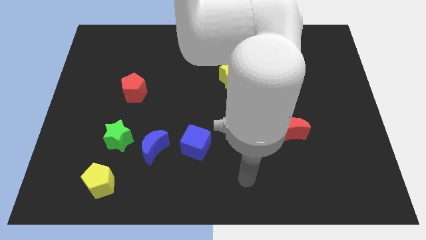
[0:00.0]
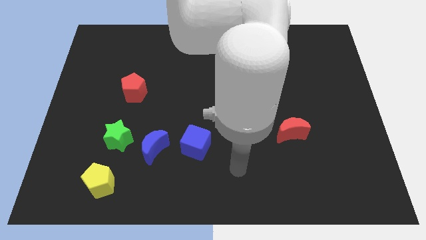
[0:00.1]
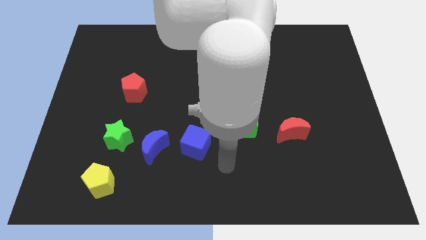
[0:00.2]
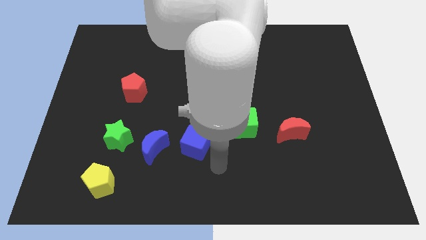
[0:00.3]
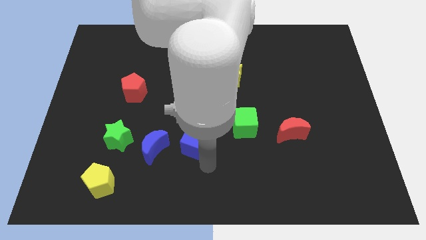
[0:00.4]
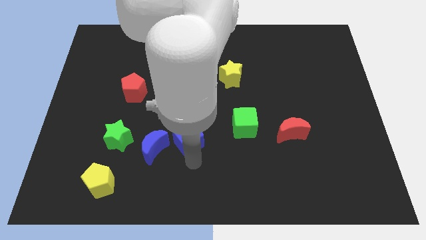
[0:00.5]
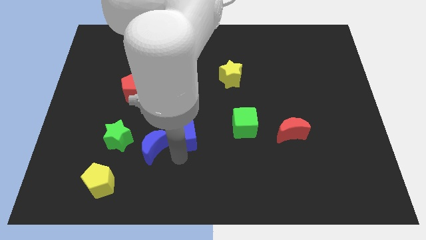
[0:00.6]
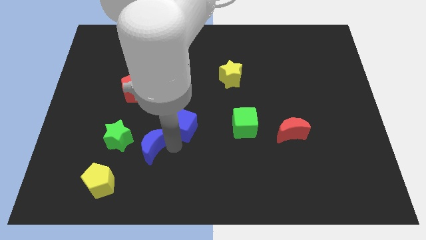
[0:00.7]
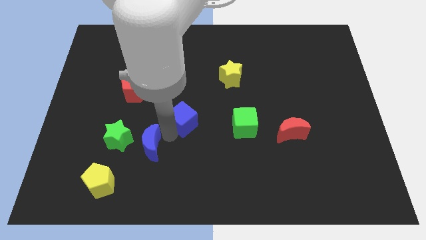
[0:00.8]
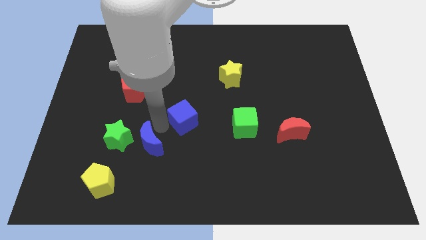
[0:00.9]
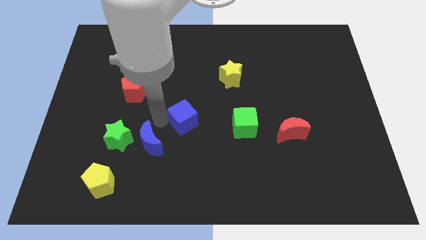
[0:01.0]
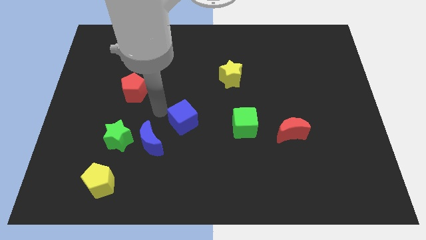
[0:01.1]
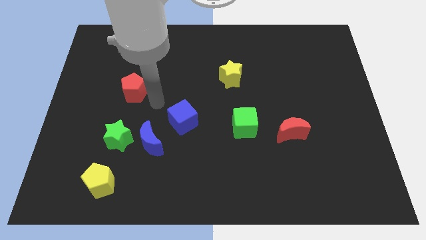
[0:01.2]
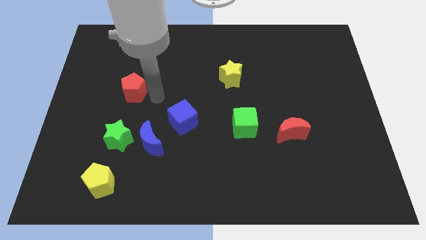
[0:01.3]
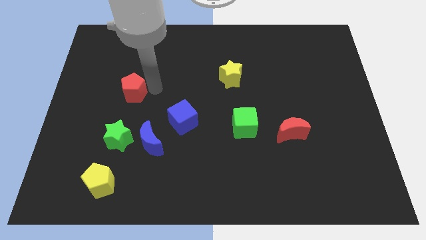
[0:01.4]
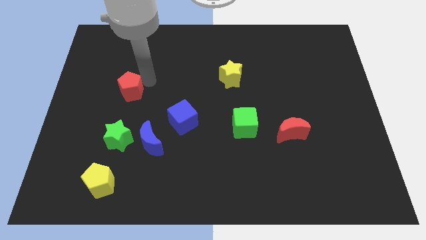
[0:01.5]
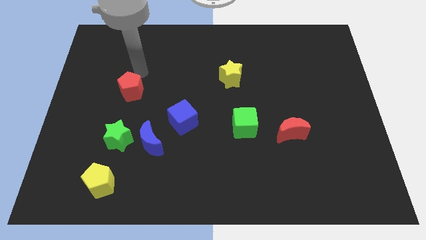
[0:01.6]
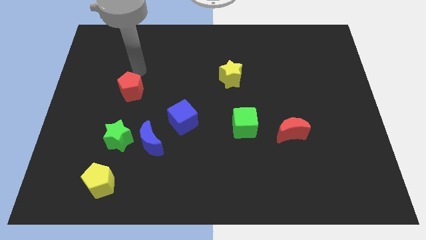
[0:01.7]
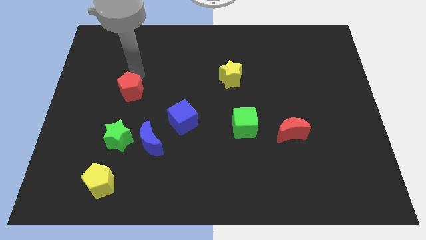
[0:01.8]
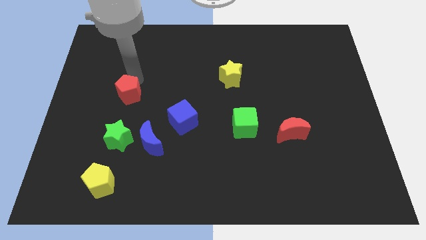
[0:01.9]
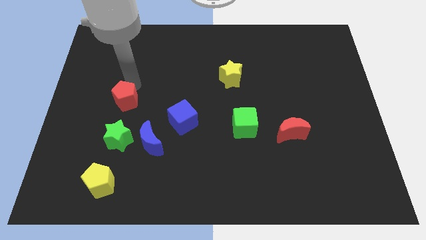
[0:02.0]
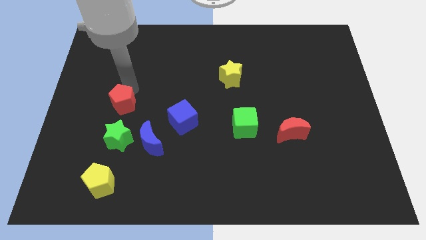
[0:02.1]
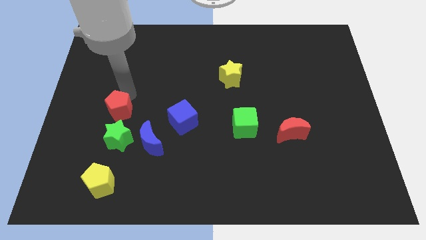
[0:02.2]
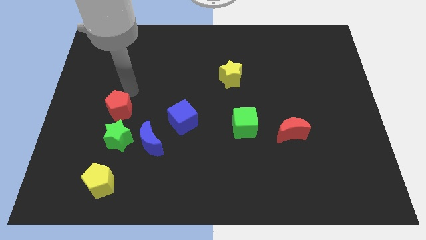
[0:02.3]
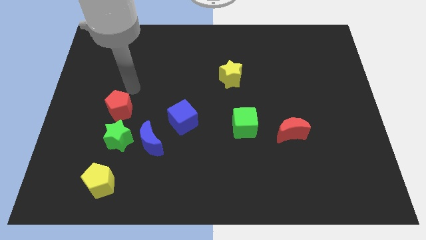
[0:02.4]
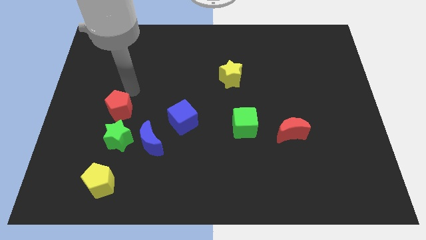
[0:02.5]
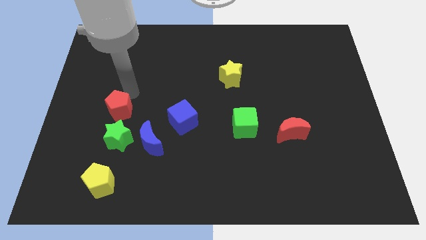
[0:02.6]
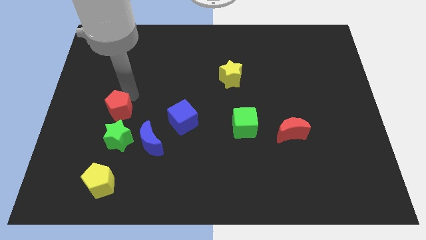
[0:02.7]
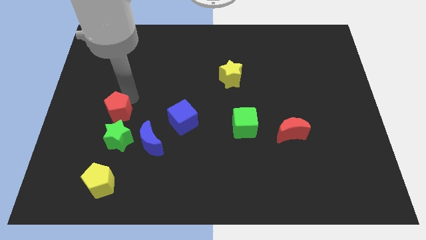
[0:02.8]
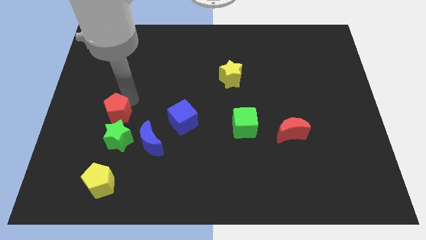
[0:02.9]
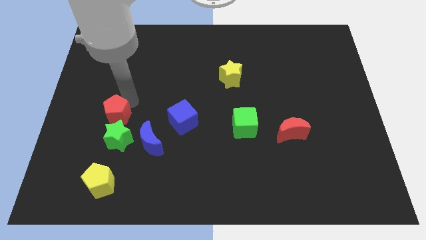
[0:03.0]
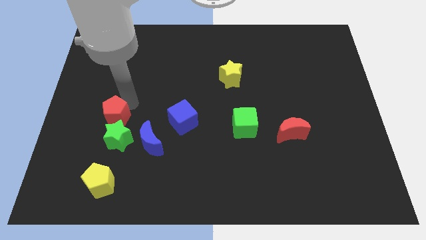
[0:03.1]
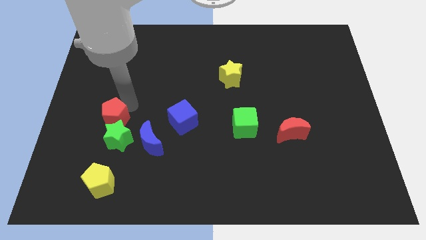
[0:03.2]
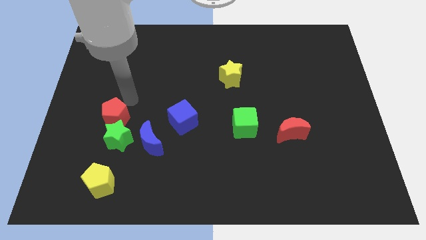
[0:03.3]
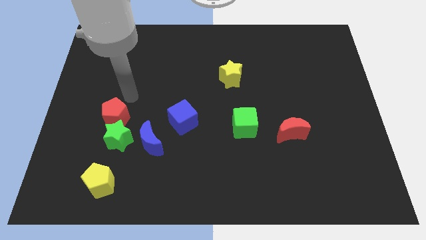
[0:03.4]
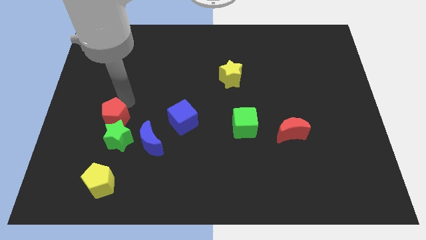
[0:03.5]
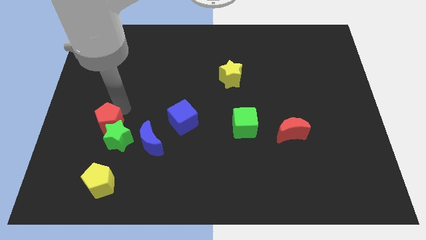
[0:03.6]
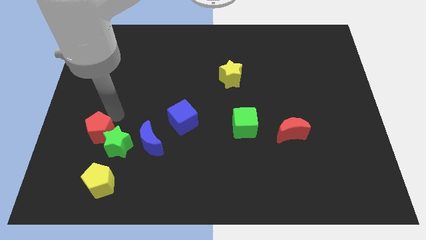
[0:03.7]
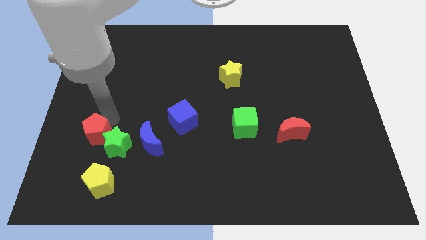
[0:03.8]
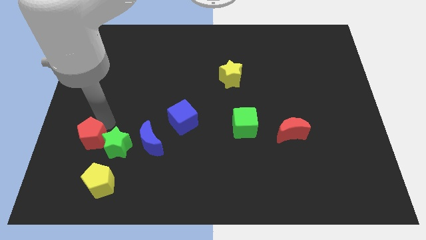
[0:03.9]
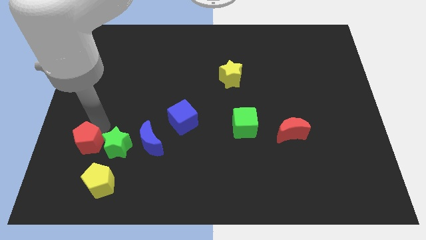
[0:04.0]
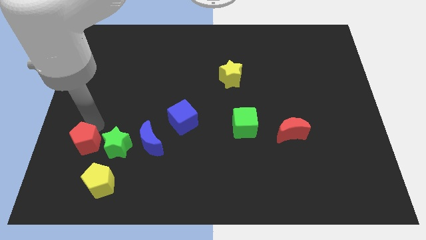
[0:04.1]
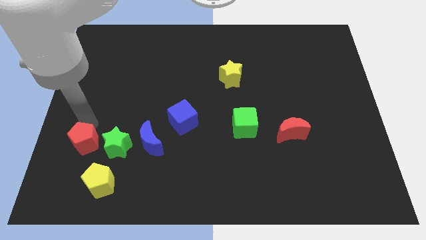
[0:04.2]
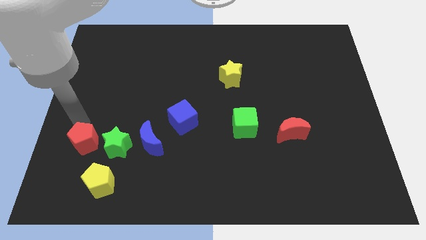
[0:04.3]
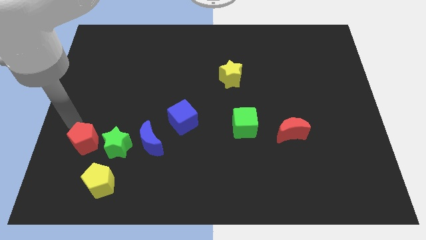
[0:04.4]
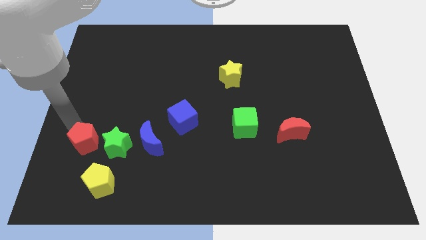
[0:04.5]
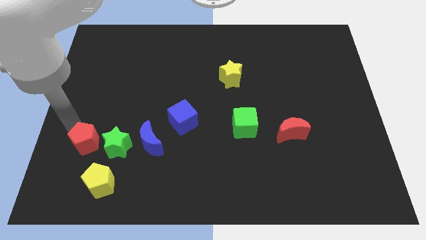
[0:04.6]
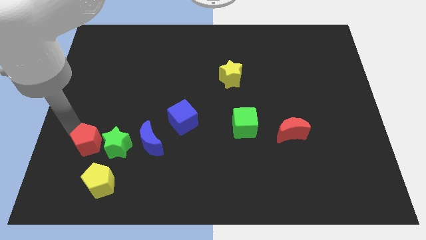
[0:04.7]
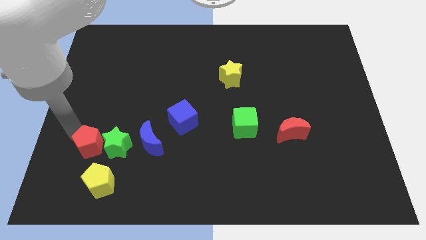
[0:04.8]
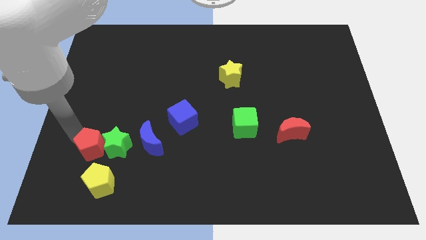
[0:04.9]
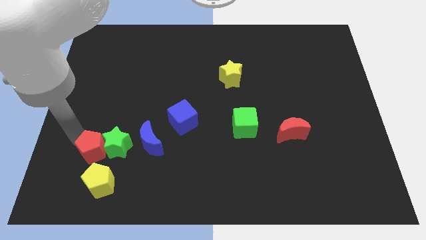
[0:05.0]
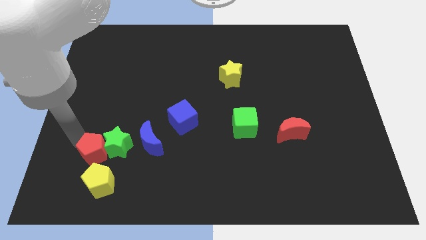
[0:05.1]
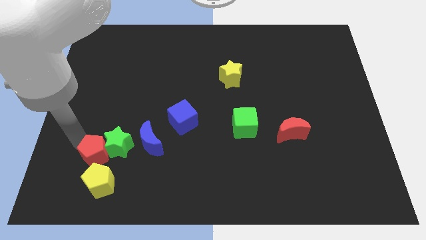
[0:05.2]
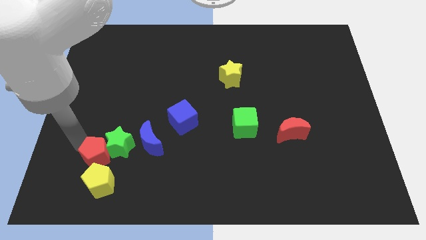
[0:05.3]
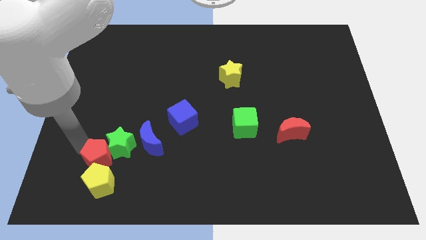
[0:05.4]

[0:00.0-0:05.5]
push the red pentagon to the yellow pentagon

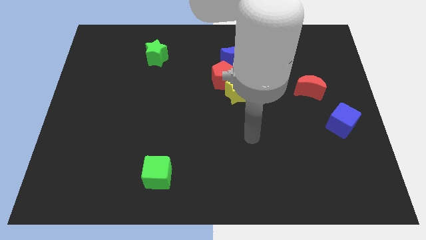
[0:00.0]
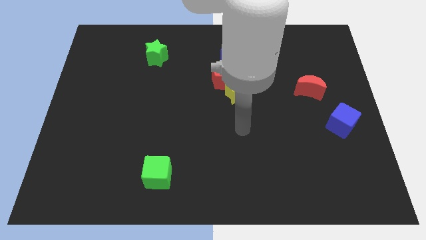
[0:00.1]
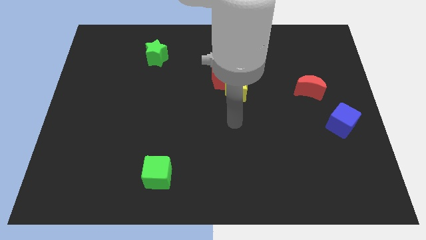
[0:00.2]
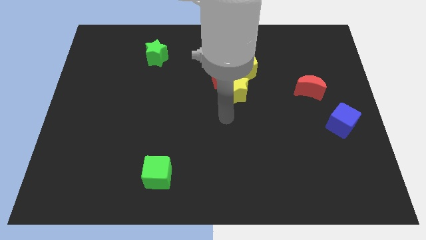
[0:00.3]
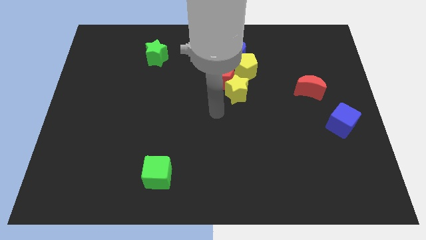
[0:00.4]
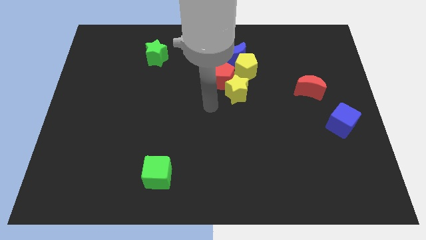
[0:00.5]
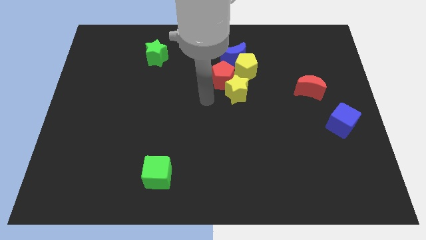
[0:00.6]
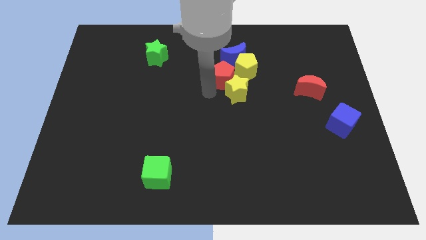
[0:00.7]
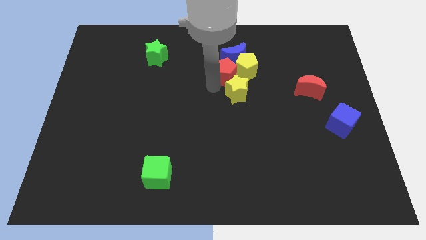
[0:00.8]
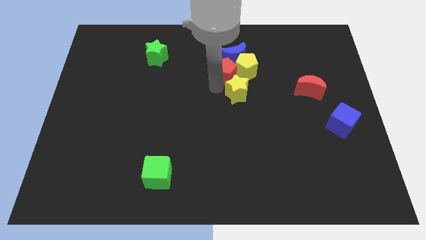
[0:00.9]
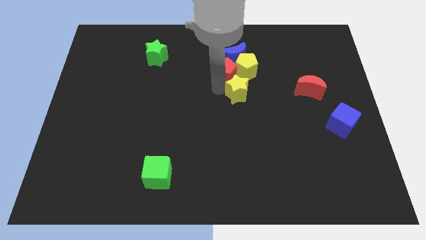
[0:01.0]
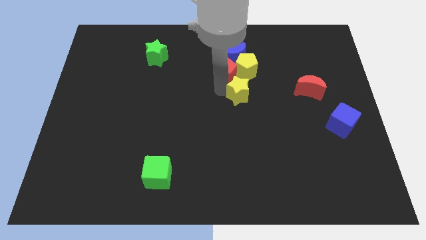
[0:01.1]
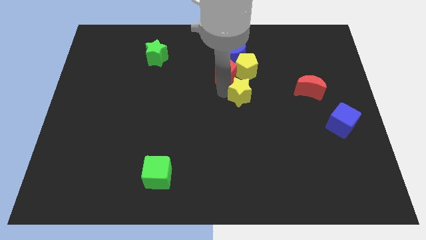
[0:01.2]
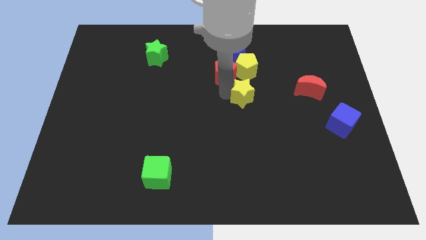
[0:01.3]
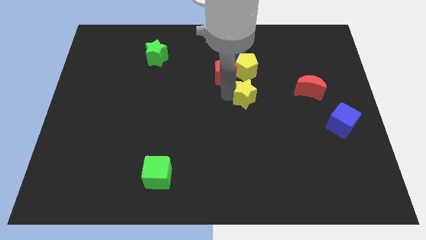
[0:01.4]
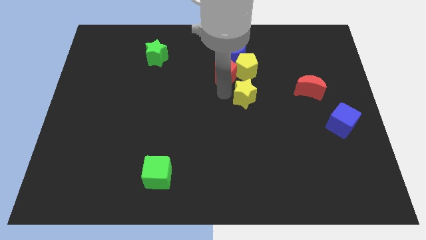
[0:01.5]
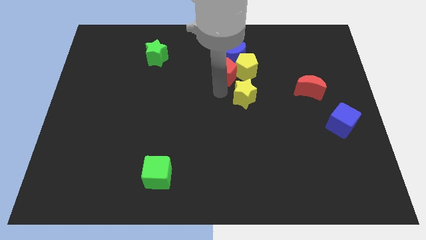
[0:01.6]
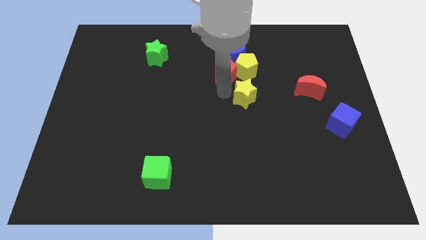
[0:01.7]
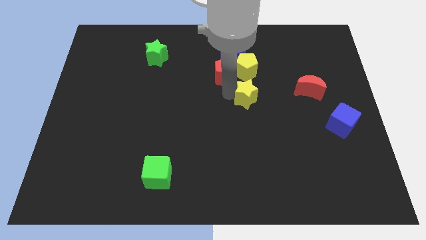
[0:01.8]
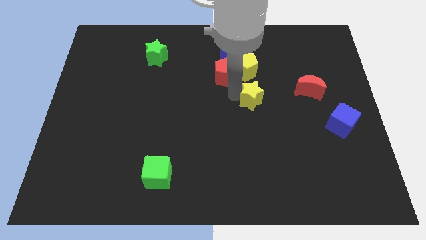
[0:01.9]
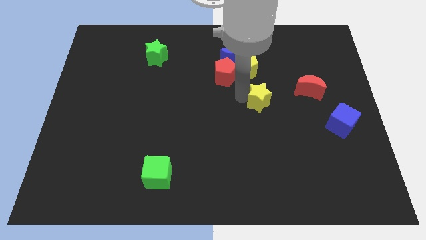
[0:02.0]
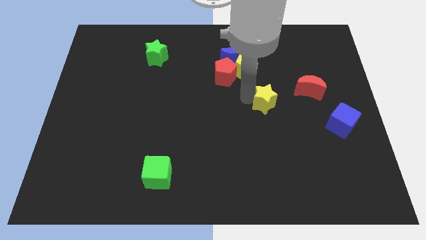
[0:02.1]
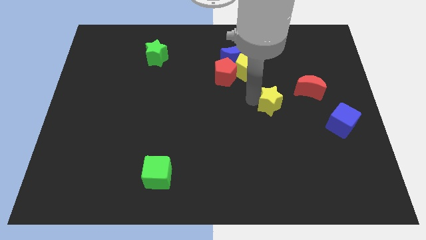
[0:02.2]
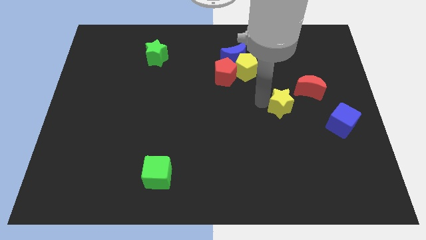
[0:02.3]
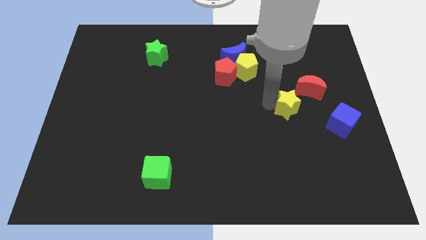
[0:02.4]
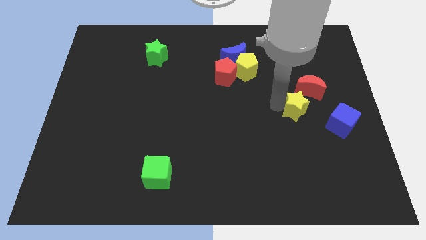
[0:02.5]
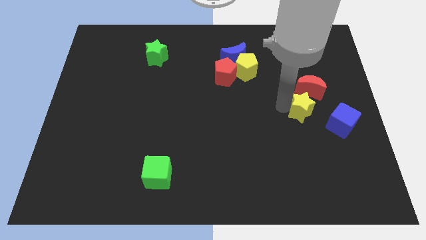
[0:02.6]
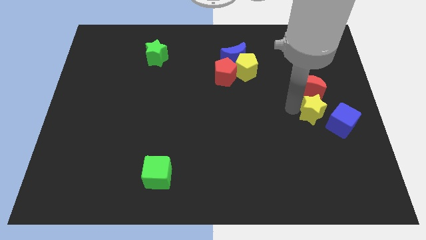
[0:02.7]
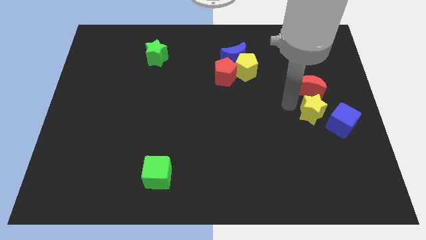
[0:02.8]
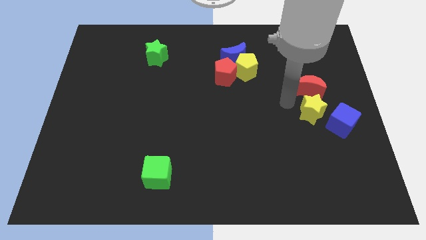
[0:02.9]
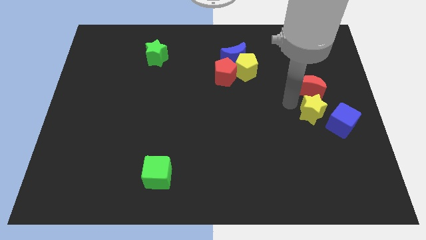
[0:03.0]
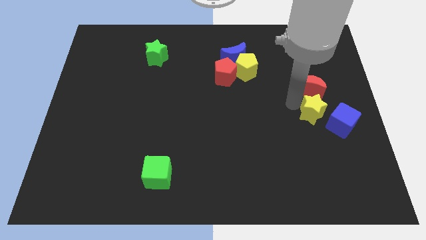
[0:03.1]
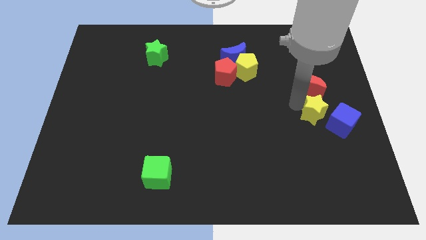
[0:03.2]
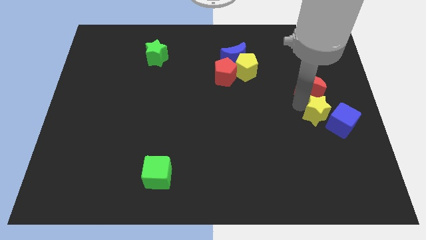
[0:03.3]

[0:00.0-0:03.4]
push the yellow star towards the blue cube
